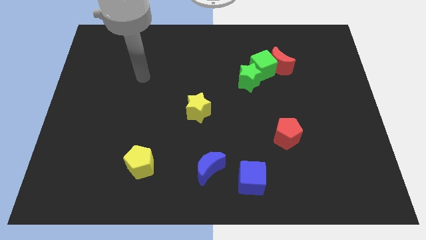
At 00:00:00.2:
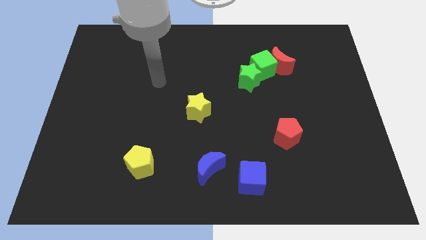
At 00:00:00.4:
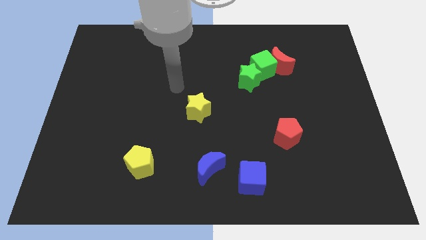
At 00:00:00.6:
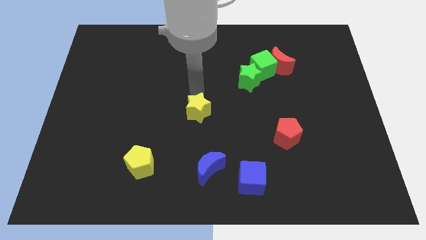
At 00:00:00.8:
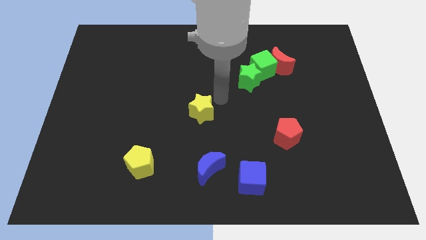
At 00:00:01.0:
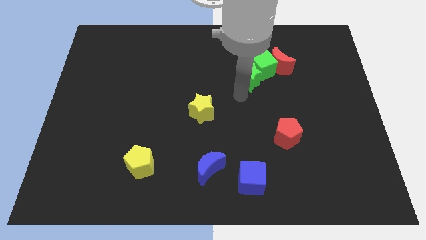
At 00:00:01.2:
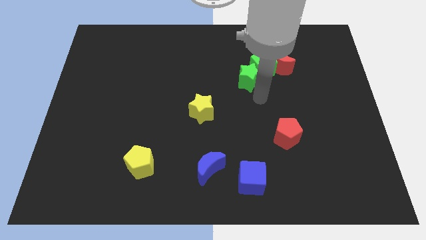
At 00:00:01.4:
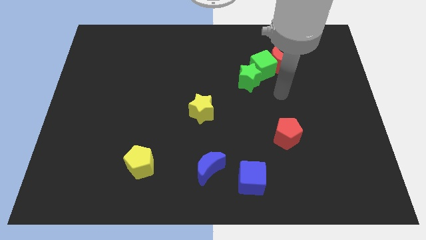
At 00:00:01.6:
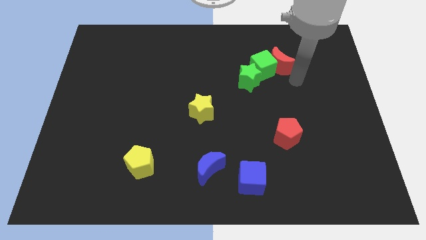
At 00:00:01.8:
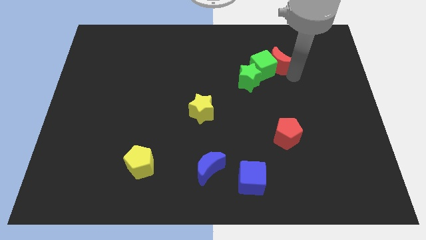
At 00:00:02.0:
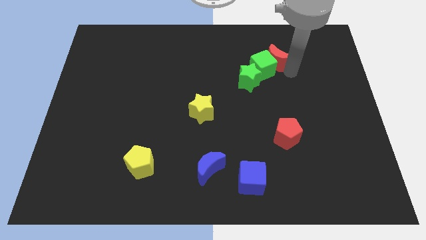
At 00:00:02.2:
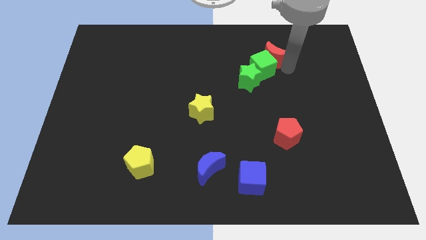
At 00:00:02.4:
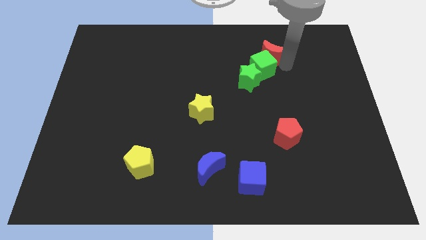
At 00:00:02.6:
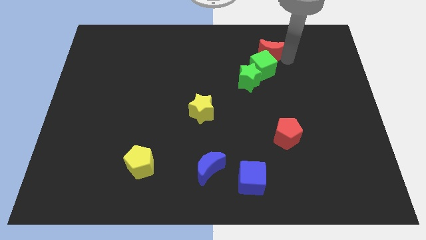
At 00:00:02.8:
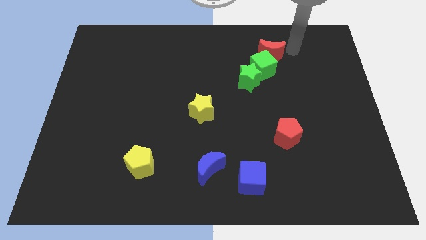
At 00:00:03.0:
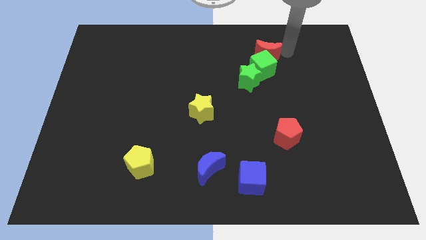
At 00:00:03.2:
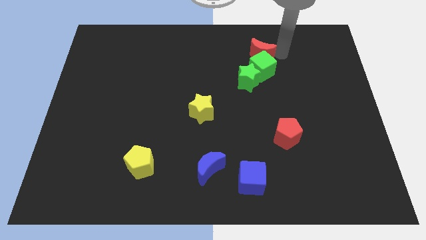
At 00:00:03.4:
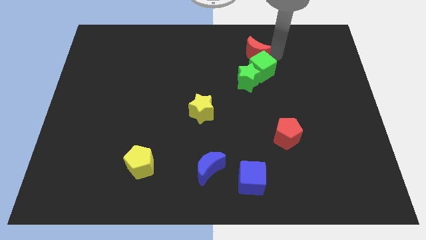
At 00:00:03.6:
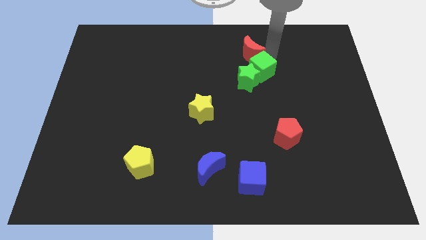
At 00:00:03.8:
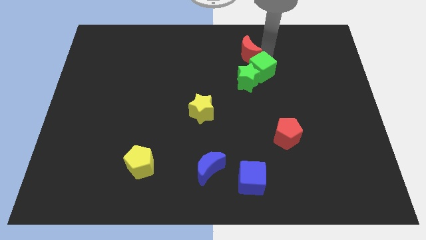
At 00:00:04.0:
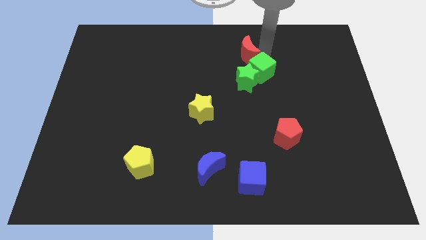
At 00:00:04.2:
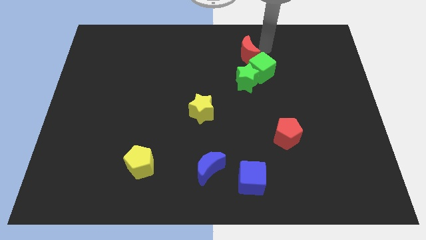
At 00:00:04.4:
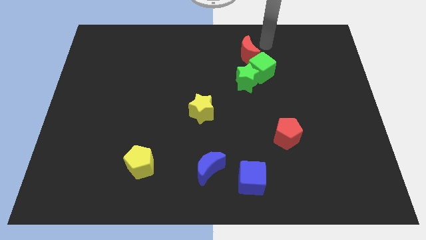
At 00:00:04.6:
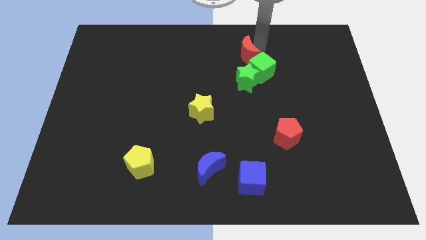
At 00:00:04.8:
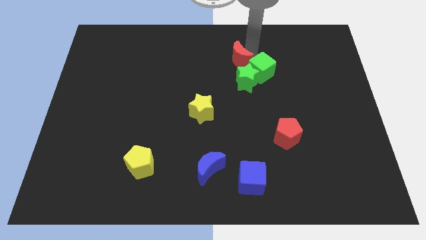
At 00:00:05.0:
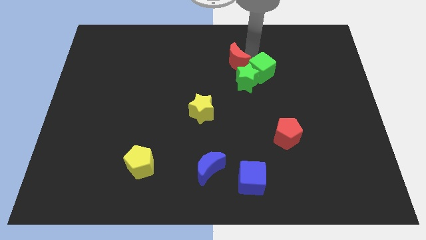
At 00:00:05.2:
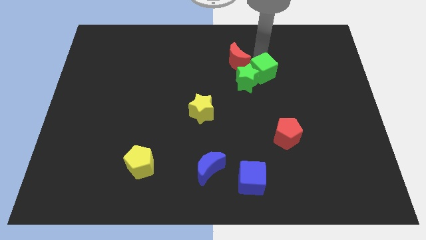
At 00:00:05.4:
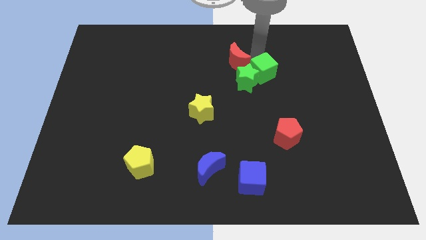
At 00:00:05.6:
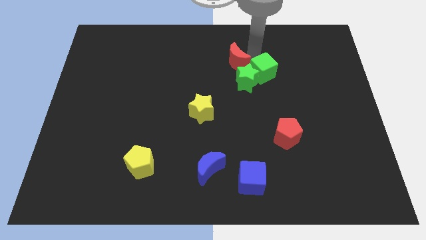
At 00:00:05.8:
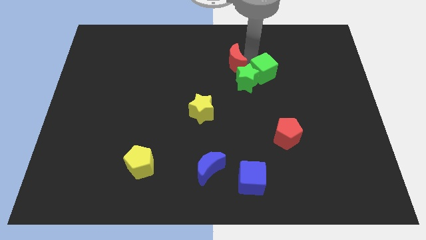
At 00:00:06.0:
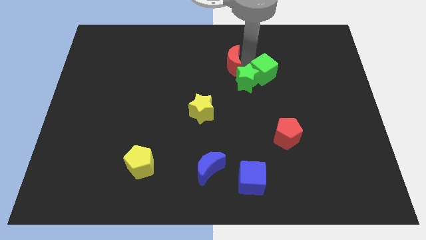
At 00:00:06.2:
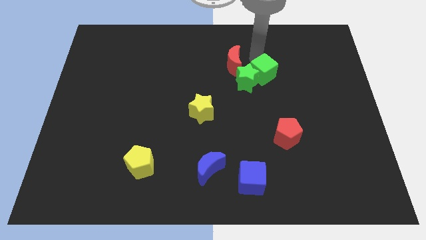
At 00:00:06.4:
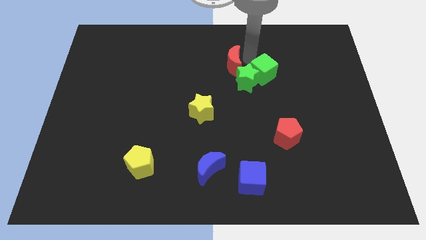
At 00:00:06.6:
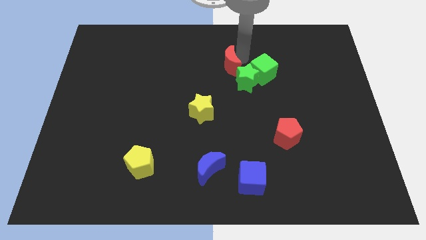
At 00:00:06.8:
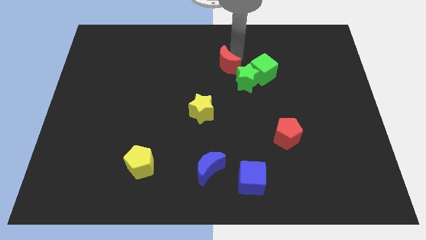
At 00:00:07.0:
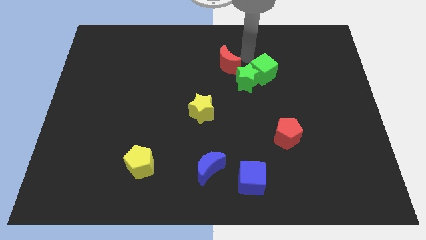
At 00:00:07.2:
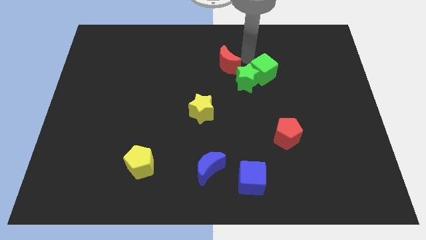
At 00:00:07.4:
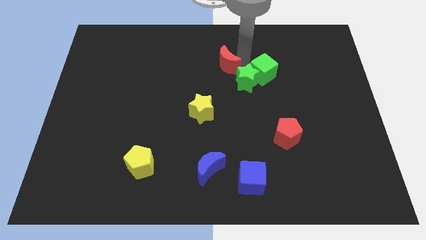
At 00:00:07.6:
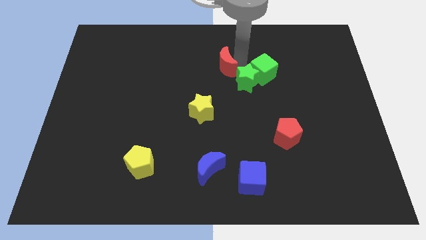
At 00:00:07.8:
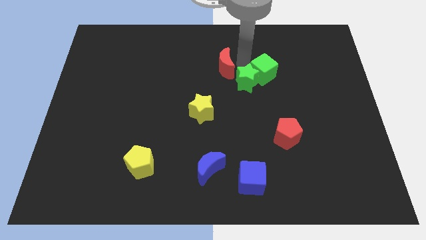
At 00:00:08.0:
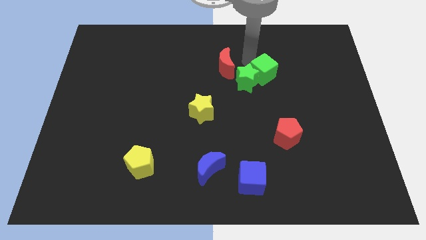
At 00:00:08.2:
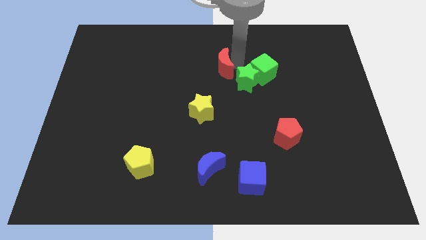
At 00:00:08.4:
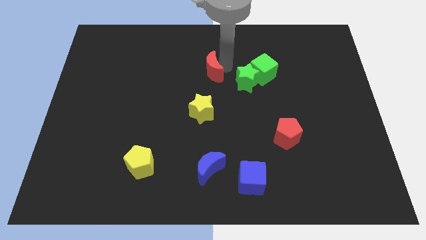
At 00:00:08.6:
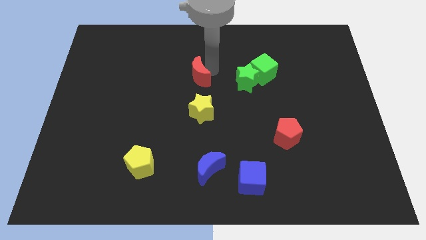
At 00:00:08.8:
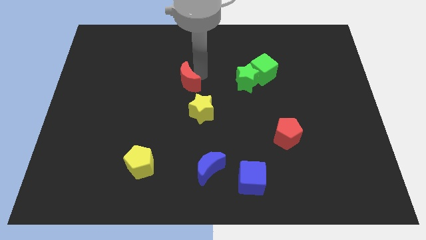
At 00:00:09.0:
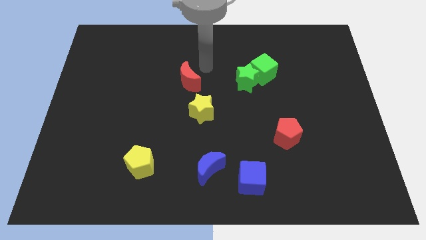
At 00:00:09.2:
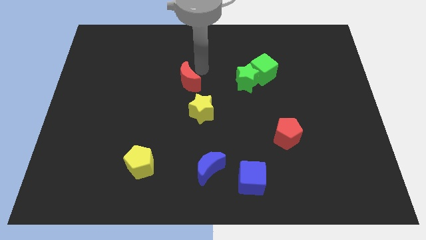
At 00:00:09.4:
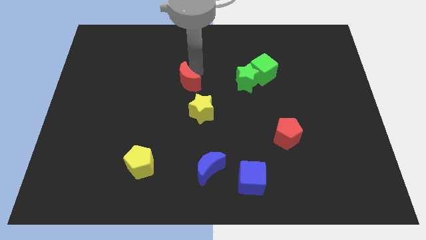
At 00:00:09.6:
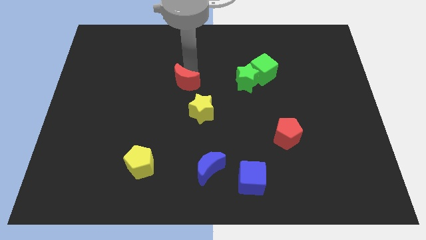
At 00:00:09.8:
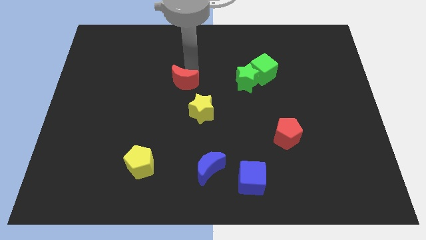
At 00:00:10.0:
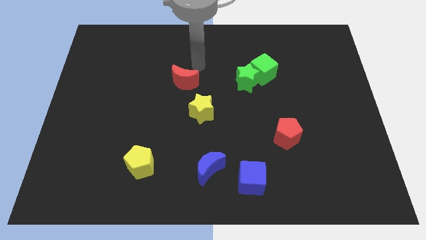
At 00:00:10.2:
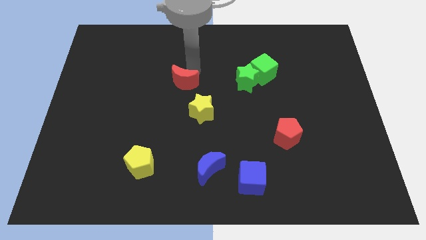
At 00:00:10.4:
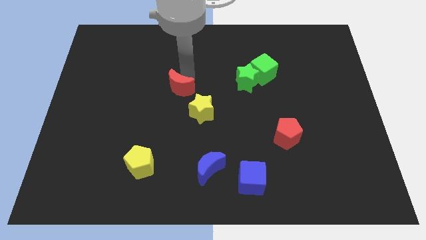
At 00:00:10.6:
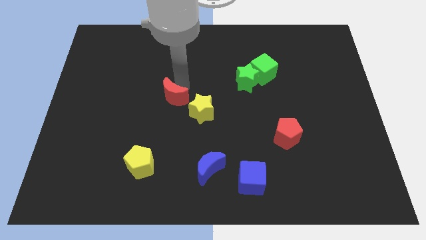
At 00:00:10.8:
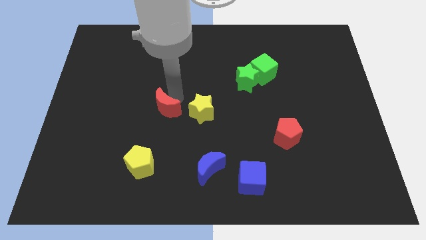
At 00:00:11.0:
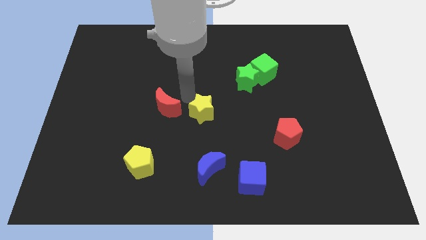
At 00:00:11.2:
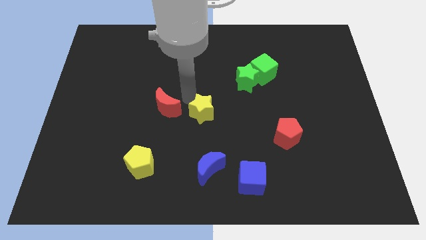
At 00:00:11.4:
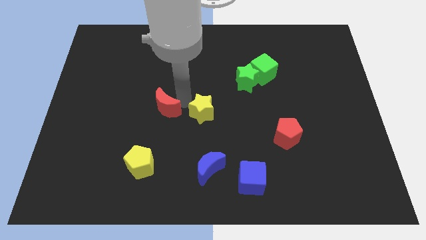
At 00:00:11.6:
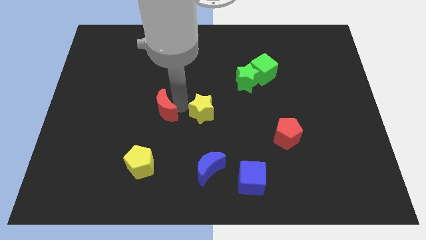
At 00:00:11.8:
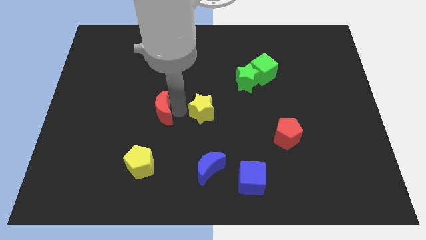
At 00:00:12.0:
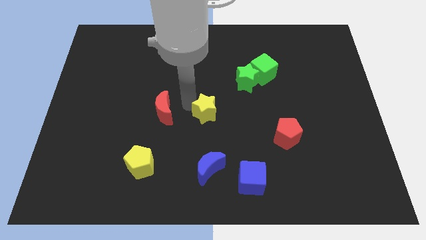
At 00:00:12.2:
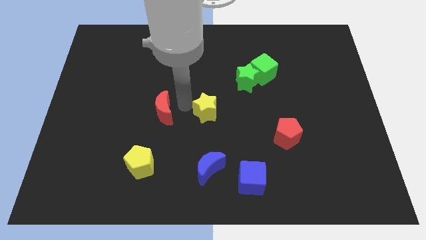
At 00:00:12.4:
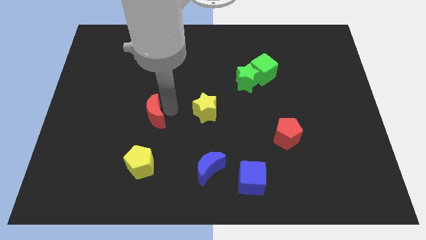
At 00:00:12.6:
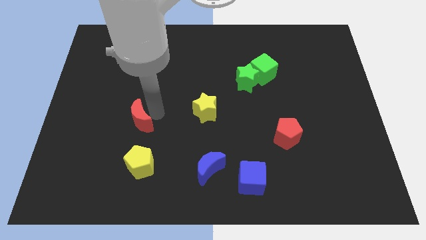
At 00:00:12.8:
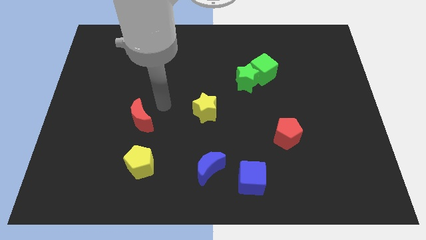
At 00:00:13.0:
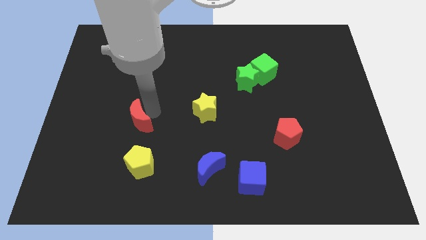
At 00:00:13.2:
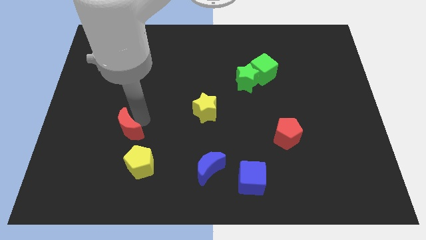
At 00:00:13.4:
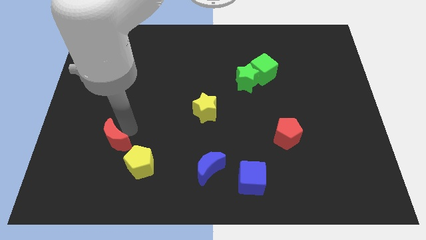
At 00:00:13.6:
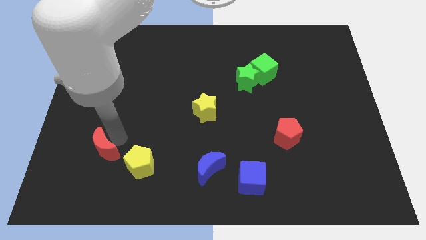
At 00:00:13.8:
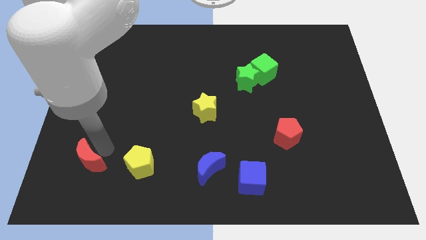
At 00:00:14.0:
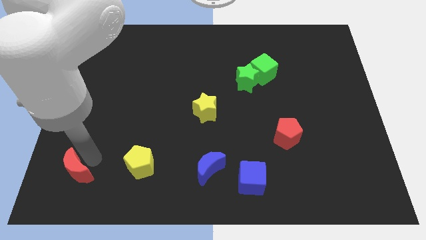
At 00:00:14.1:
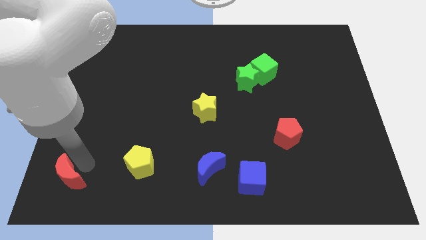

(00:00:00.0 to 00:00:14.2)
put the red moon to the lower left corner
